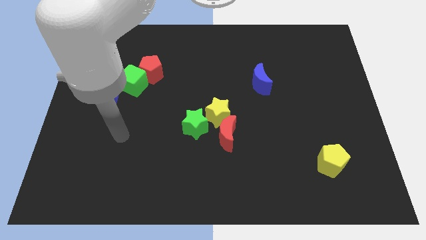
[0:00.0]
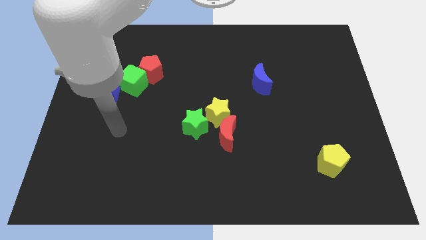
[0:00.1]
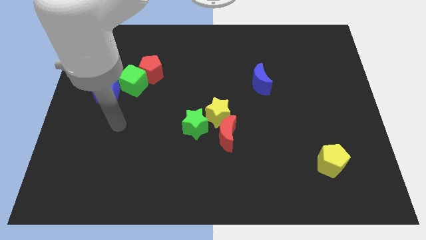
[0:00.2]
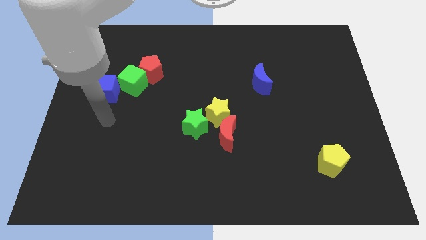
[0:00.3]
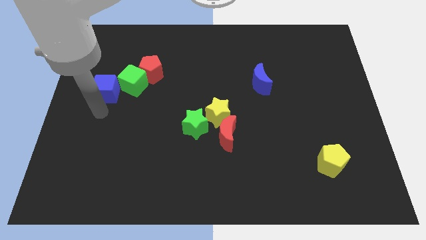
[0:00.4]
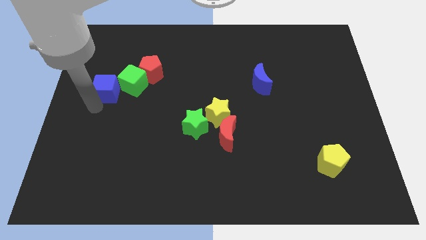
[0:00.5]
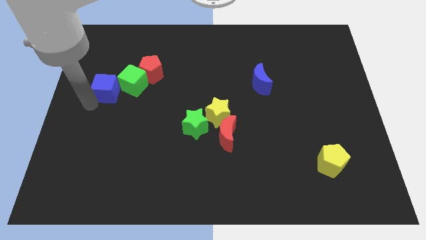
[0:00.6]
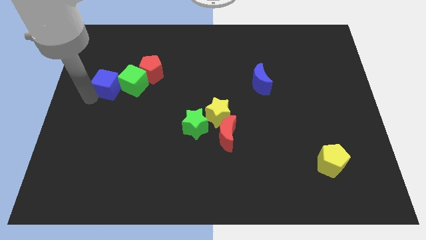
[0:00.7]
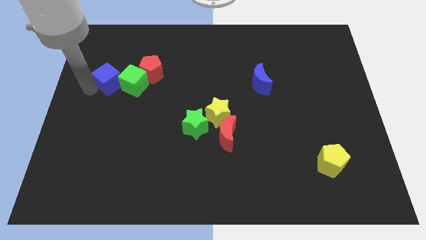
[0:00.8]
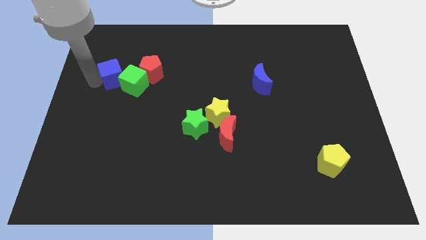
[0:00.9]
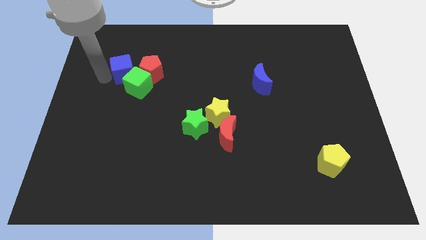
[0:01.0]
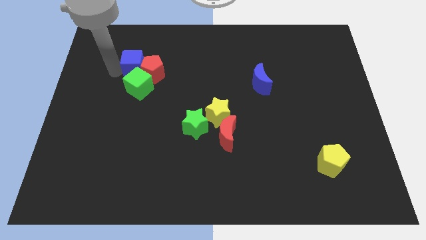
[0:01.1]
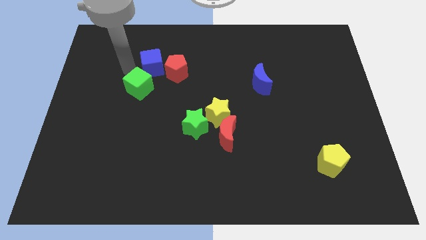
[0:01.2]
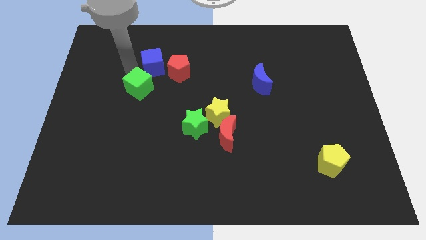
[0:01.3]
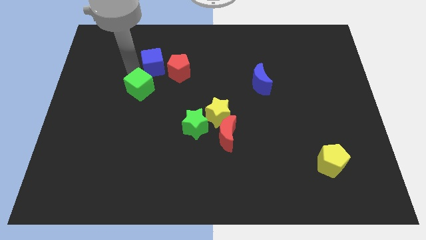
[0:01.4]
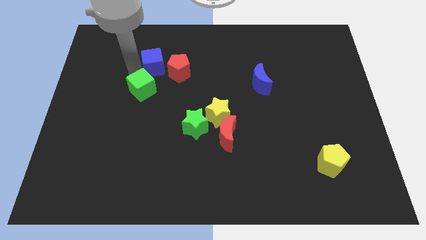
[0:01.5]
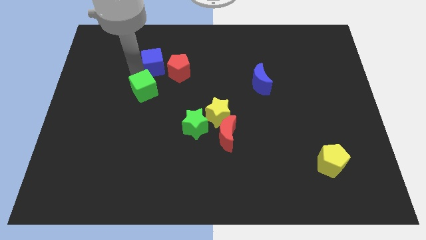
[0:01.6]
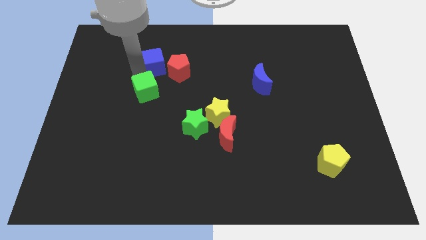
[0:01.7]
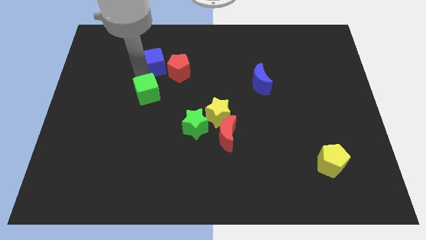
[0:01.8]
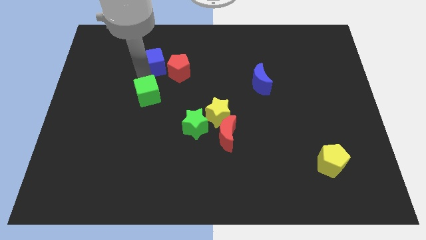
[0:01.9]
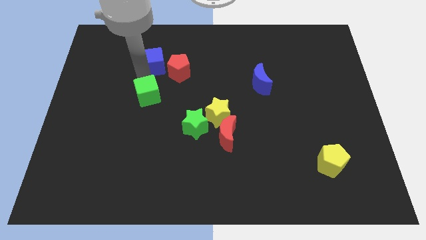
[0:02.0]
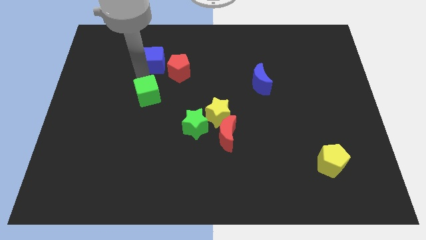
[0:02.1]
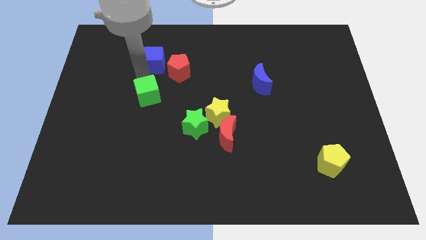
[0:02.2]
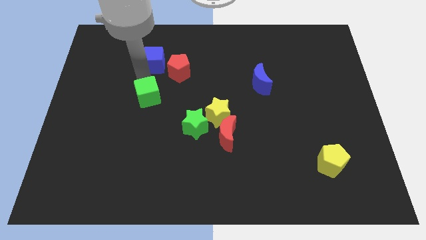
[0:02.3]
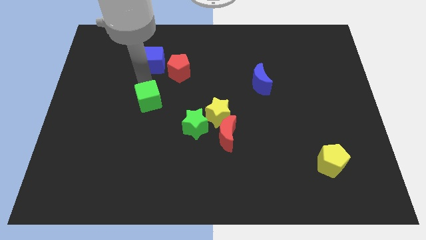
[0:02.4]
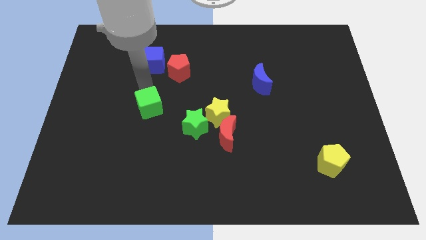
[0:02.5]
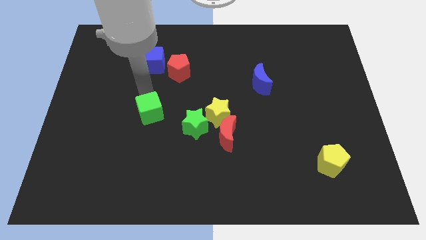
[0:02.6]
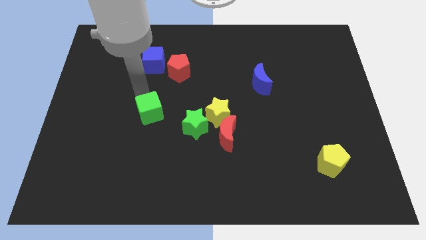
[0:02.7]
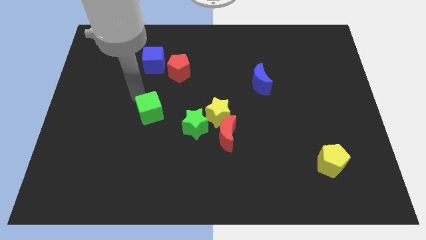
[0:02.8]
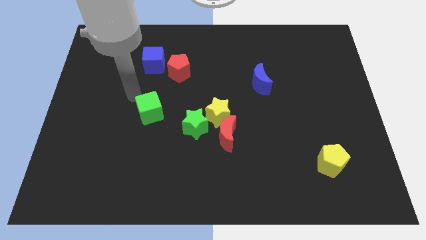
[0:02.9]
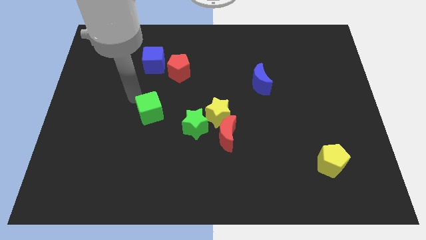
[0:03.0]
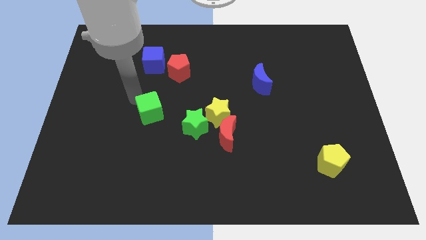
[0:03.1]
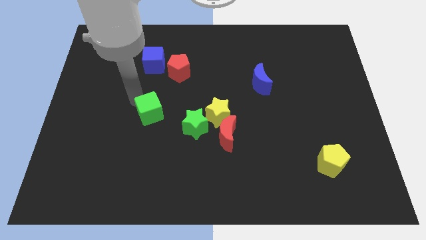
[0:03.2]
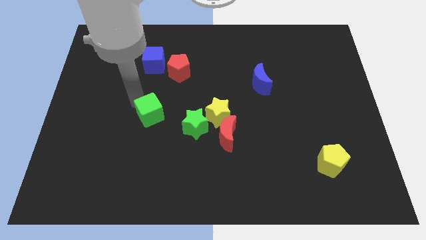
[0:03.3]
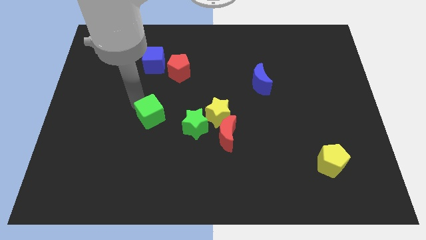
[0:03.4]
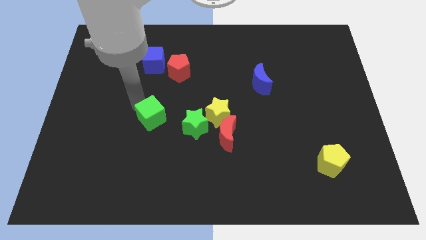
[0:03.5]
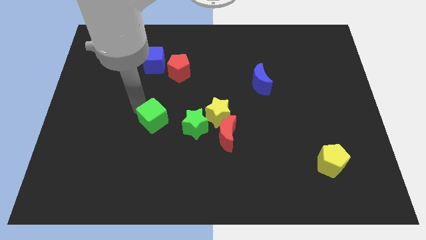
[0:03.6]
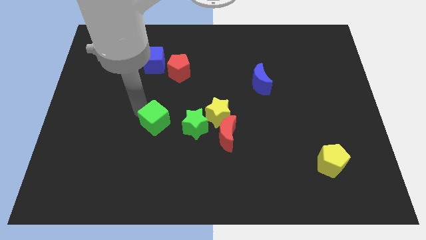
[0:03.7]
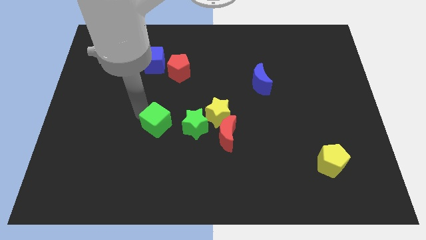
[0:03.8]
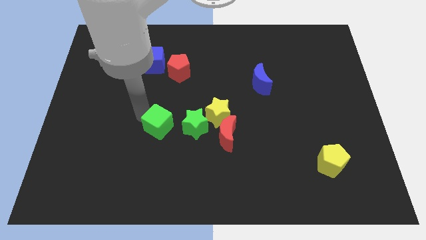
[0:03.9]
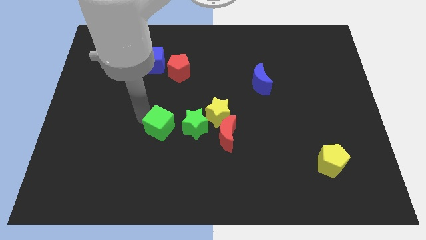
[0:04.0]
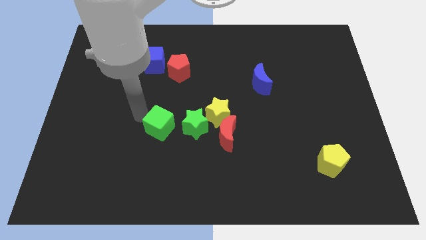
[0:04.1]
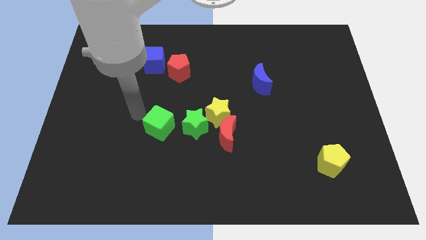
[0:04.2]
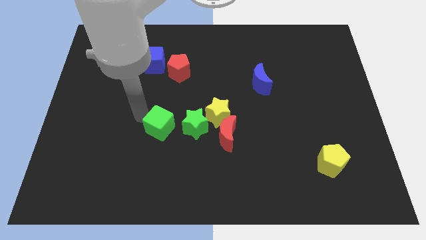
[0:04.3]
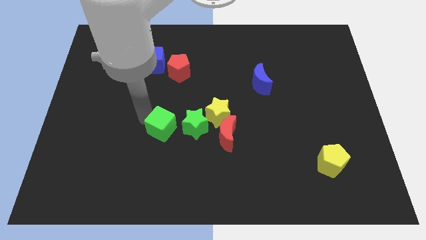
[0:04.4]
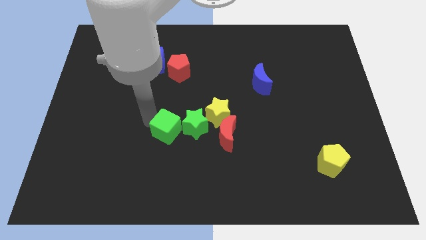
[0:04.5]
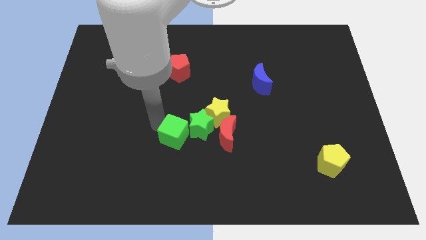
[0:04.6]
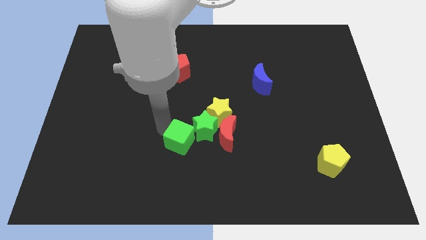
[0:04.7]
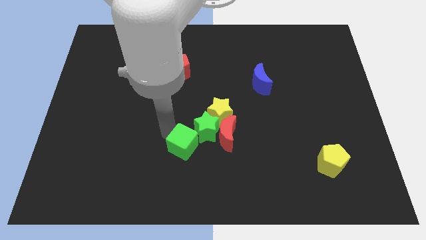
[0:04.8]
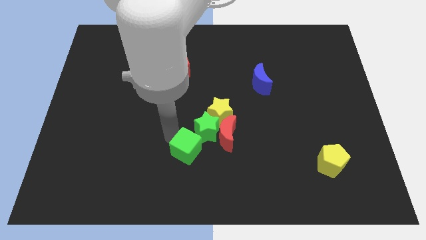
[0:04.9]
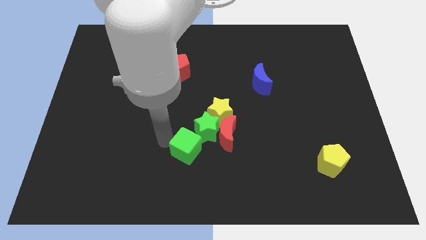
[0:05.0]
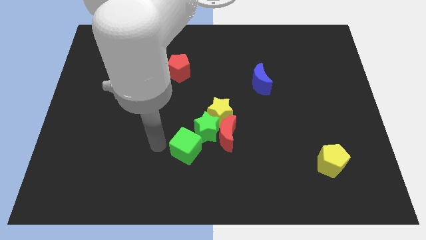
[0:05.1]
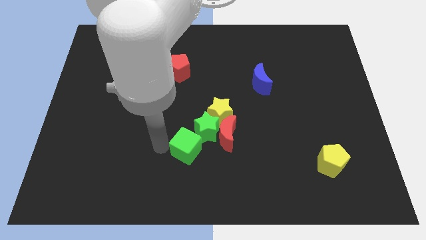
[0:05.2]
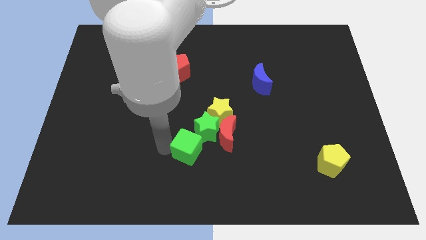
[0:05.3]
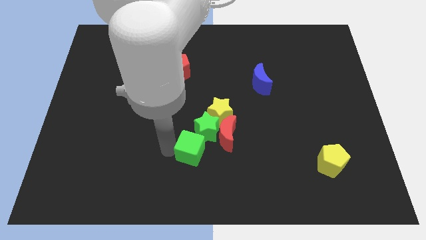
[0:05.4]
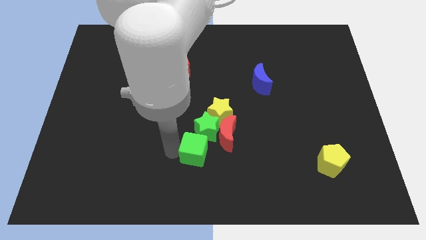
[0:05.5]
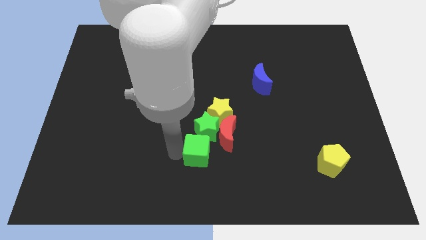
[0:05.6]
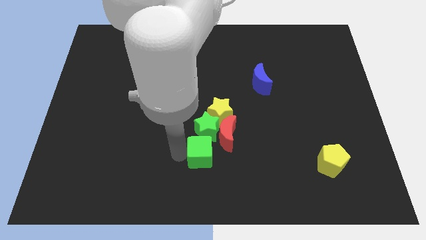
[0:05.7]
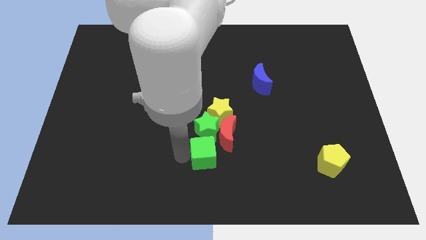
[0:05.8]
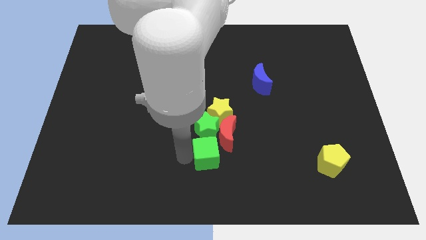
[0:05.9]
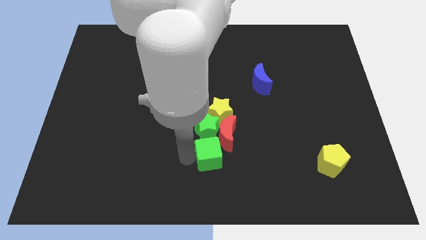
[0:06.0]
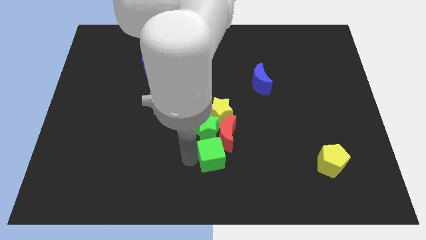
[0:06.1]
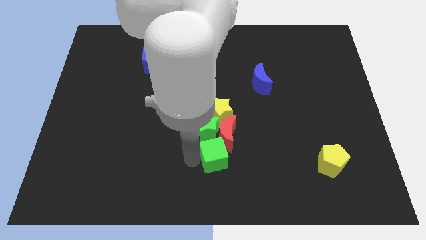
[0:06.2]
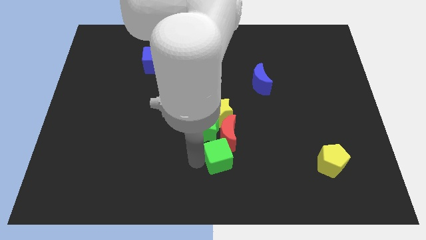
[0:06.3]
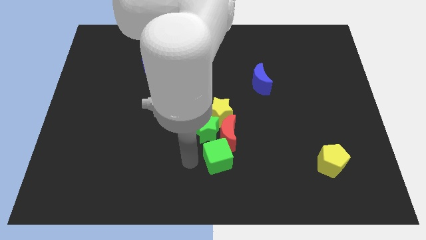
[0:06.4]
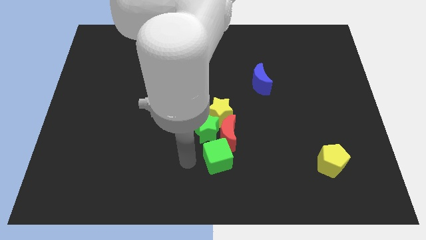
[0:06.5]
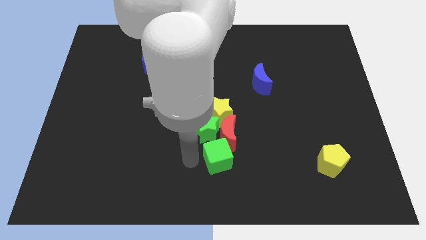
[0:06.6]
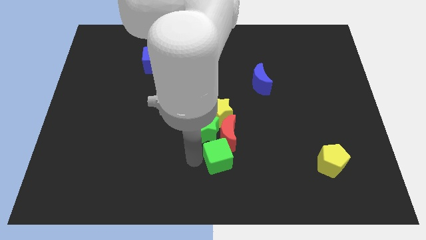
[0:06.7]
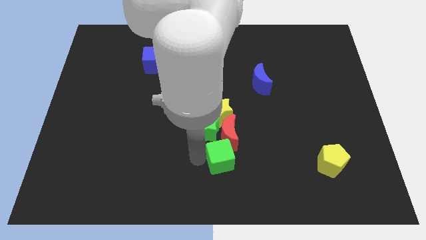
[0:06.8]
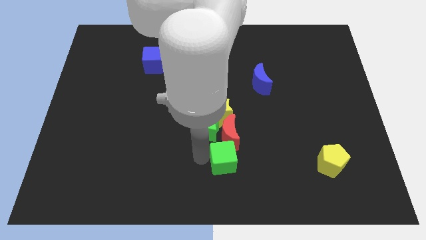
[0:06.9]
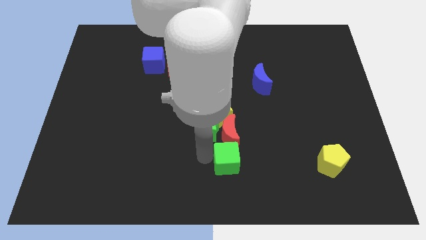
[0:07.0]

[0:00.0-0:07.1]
slide the green cube to the bottom right of the red moon

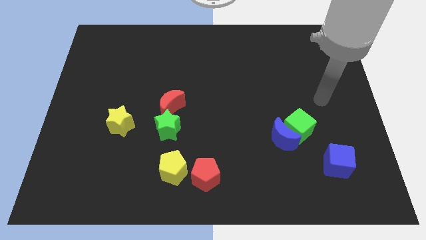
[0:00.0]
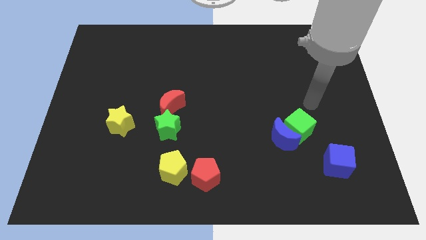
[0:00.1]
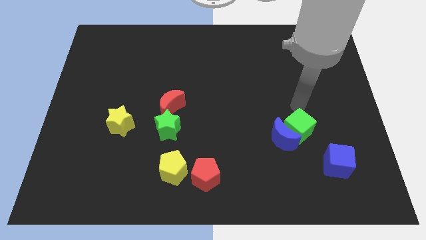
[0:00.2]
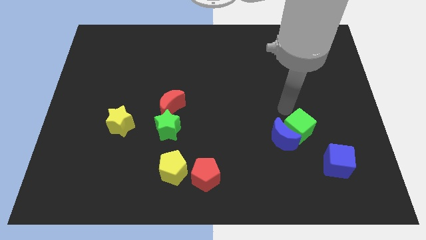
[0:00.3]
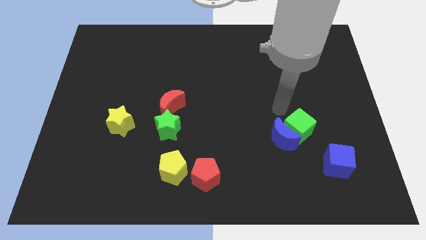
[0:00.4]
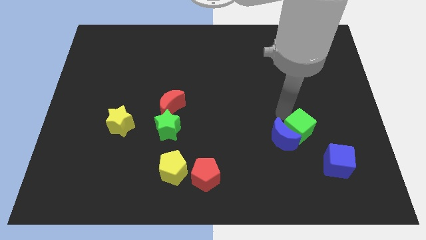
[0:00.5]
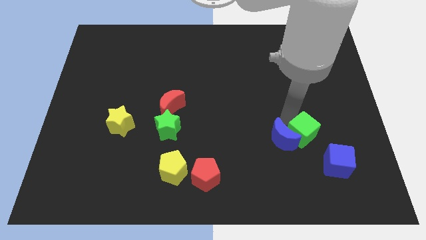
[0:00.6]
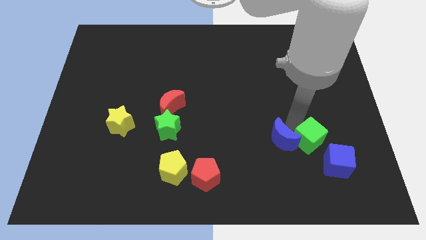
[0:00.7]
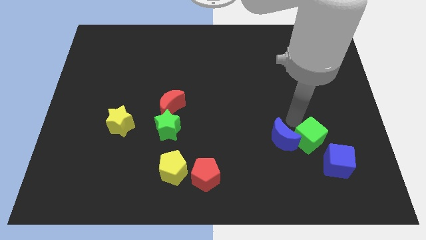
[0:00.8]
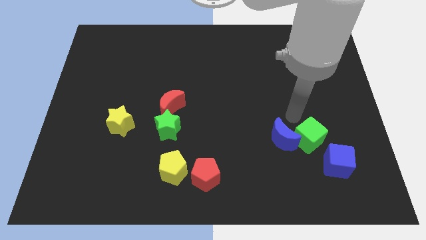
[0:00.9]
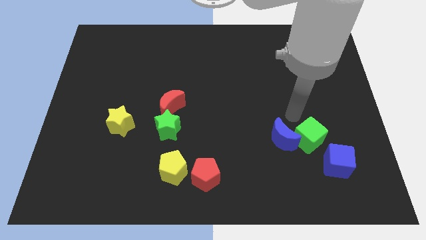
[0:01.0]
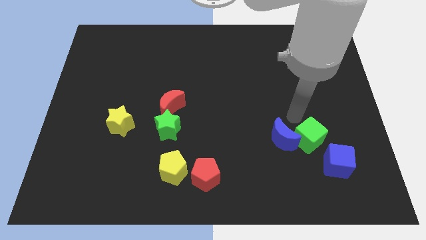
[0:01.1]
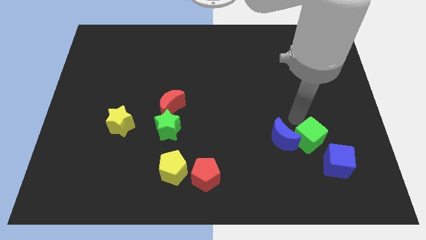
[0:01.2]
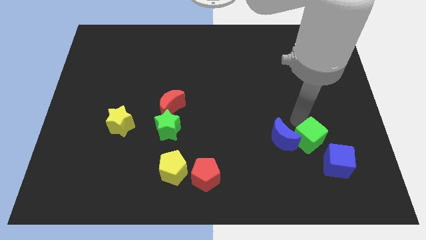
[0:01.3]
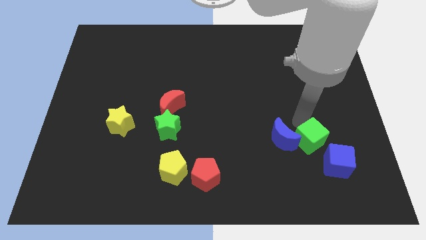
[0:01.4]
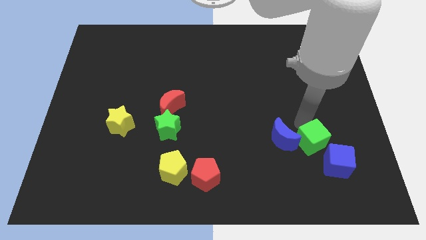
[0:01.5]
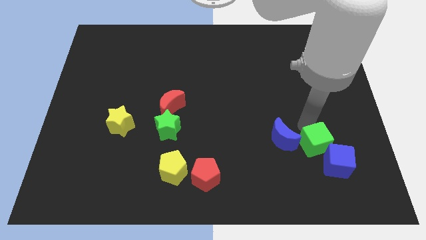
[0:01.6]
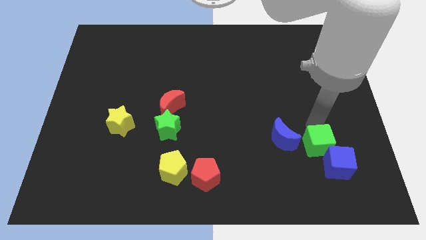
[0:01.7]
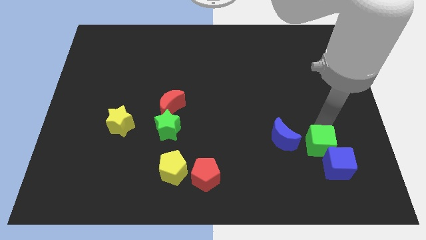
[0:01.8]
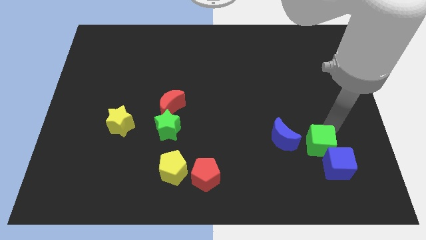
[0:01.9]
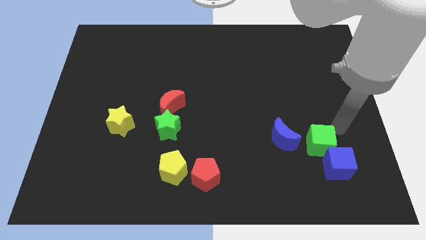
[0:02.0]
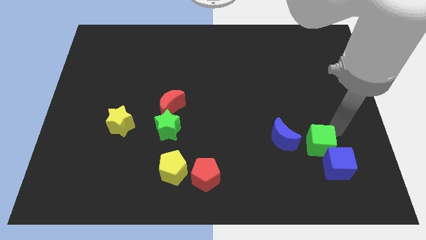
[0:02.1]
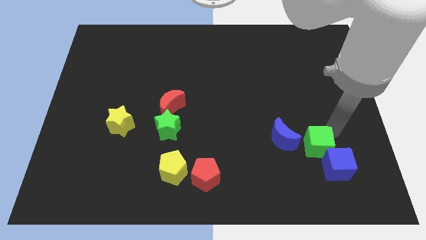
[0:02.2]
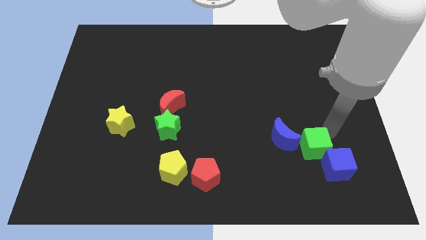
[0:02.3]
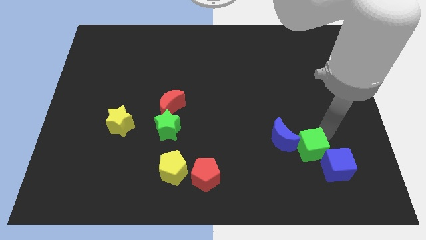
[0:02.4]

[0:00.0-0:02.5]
slide the green cube just left of the blue cube
